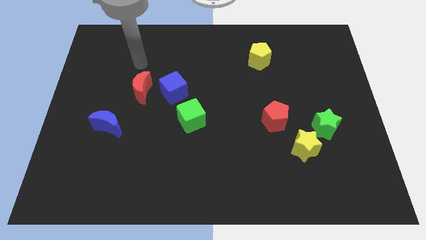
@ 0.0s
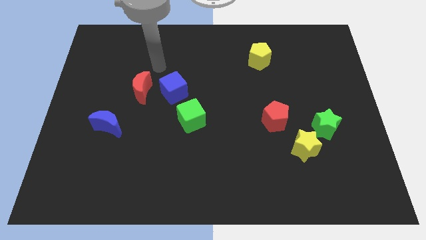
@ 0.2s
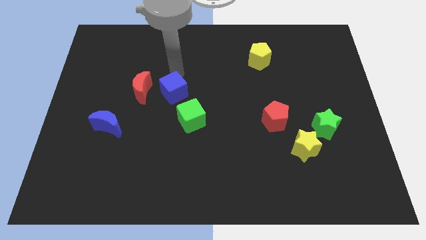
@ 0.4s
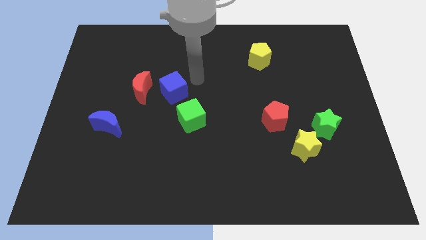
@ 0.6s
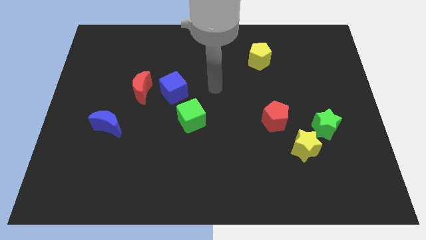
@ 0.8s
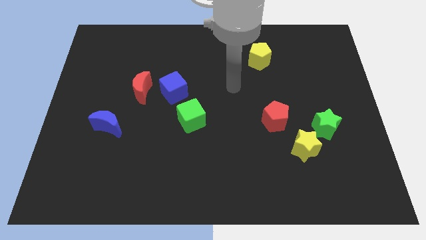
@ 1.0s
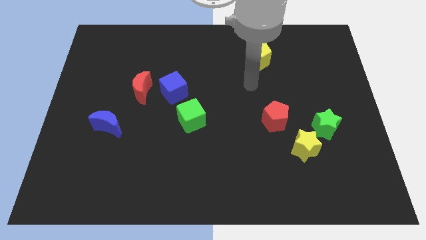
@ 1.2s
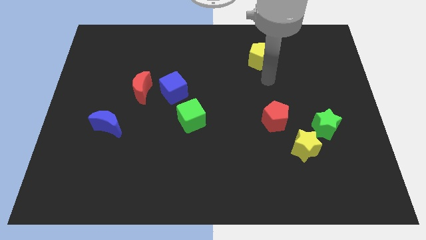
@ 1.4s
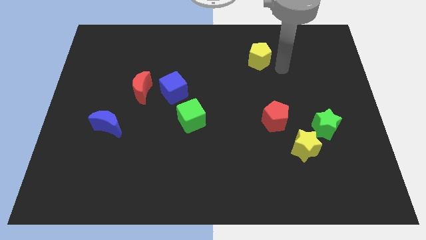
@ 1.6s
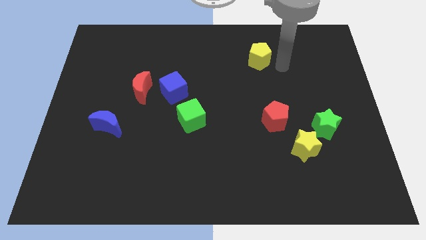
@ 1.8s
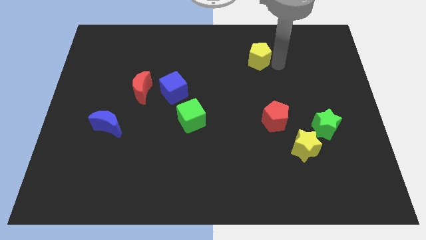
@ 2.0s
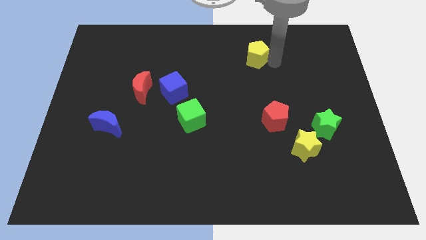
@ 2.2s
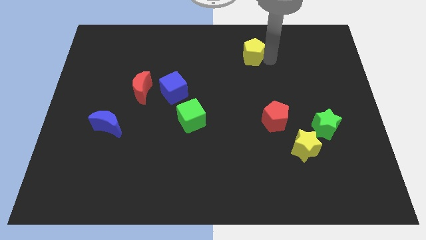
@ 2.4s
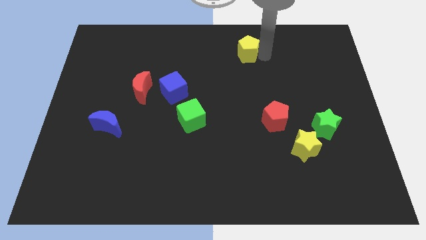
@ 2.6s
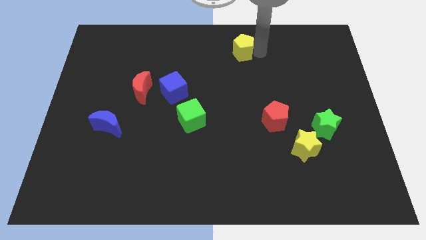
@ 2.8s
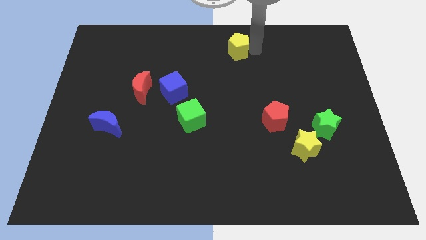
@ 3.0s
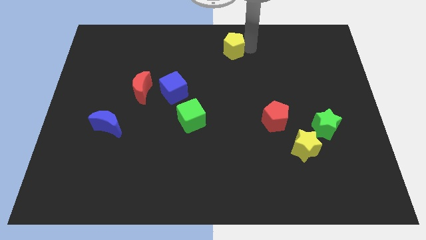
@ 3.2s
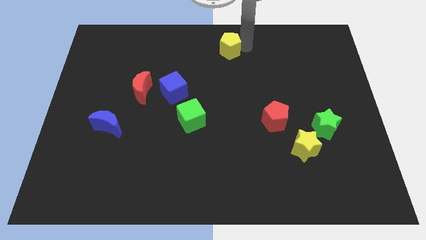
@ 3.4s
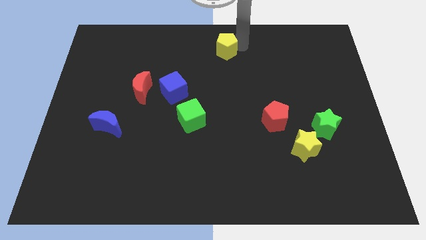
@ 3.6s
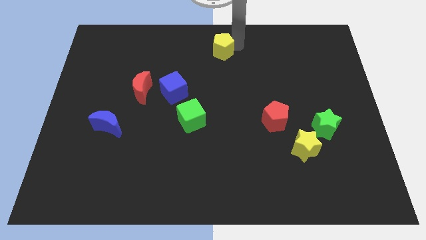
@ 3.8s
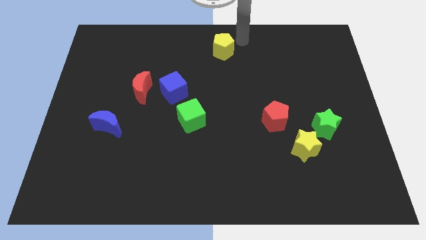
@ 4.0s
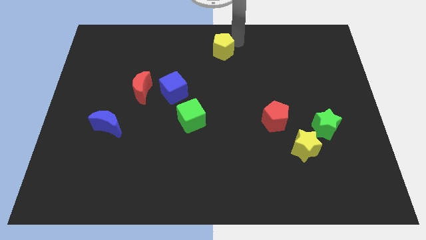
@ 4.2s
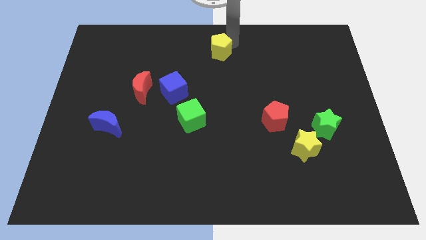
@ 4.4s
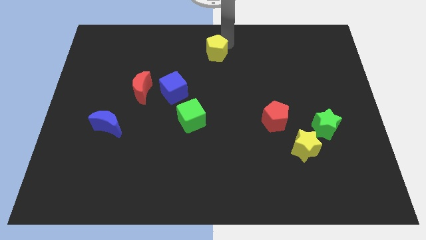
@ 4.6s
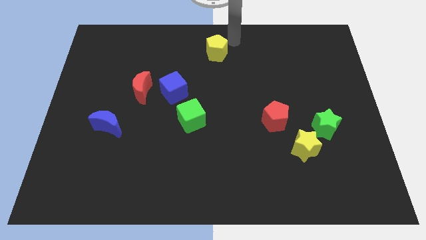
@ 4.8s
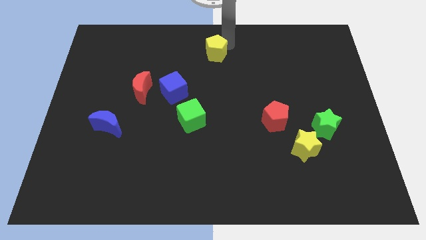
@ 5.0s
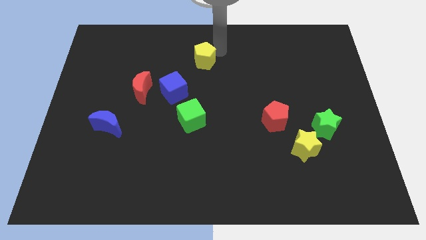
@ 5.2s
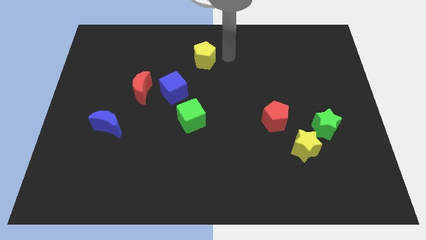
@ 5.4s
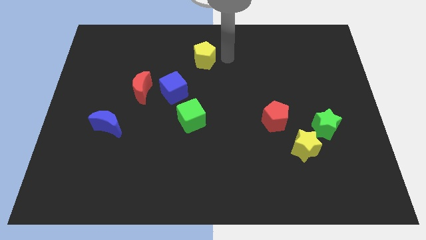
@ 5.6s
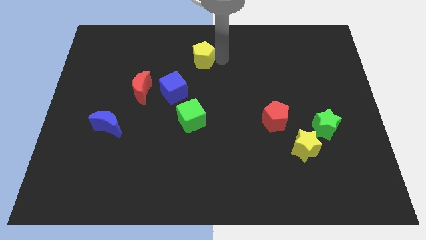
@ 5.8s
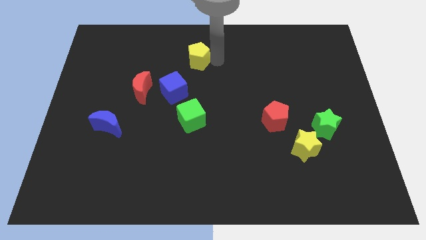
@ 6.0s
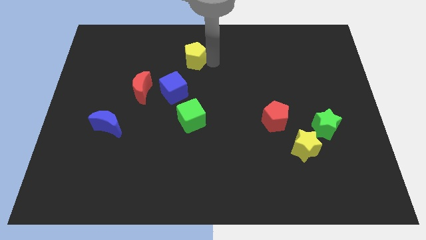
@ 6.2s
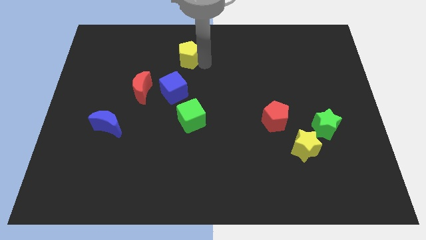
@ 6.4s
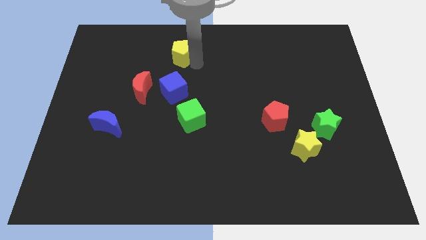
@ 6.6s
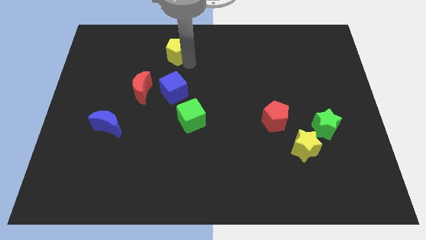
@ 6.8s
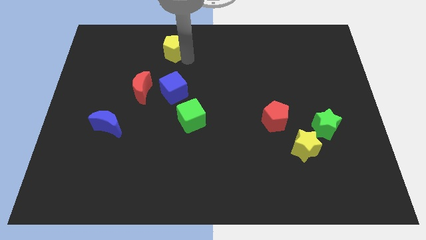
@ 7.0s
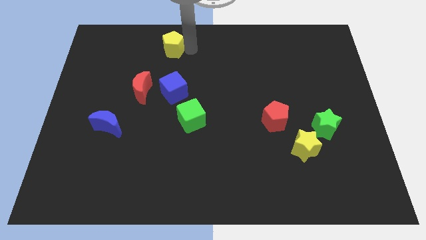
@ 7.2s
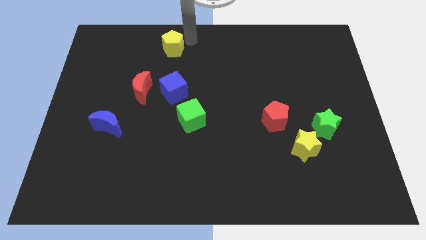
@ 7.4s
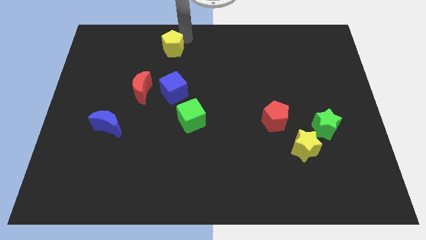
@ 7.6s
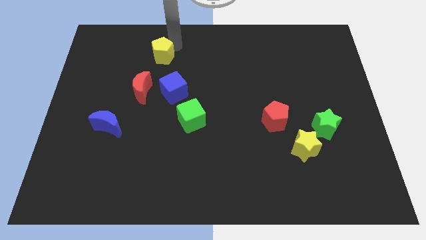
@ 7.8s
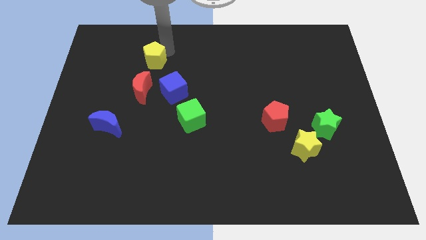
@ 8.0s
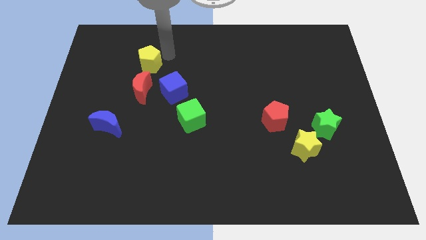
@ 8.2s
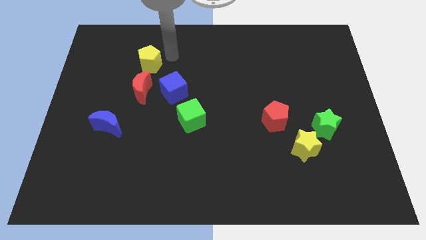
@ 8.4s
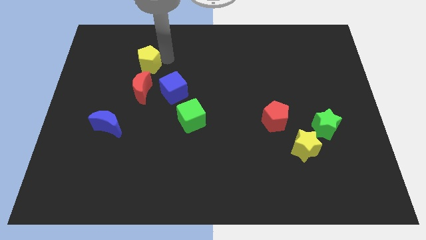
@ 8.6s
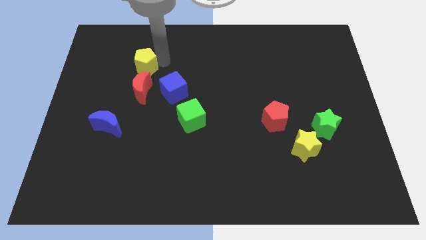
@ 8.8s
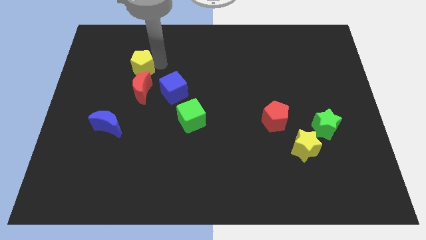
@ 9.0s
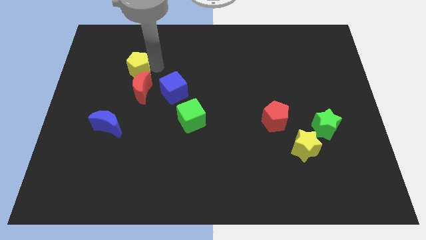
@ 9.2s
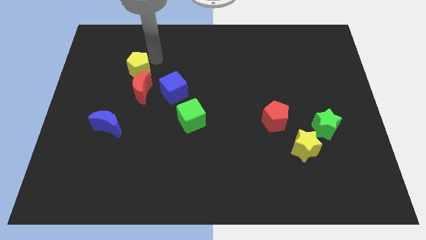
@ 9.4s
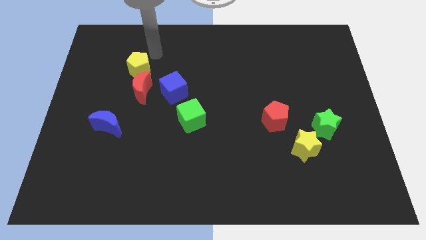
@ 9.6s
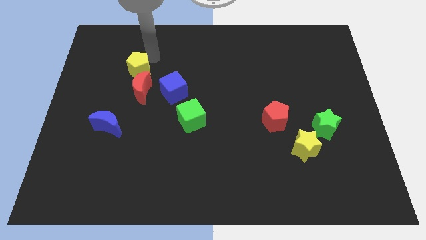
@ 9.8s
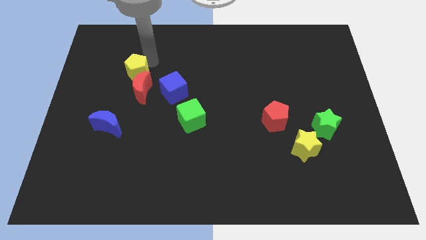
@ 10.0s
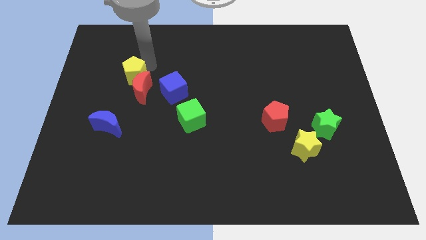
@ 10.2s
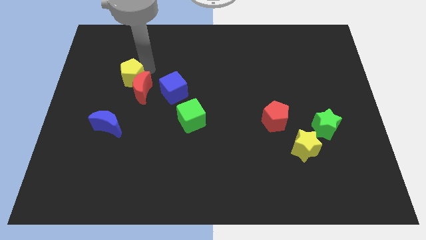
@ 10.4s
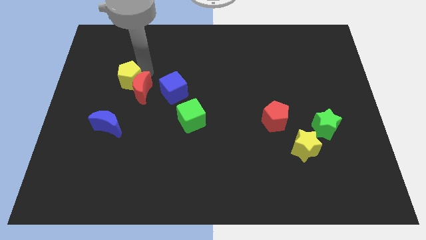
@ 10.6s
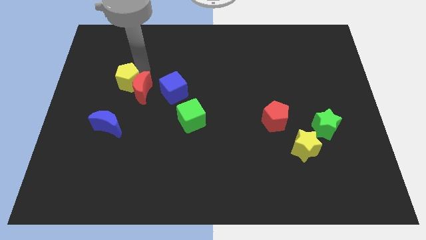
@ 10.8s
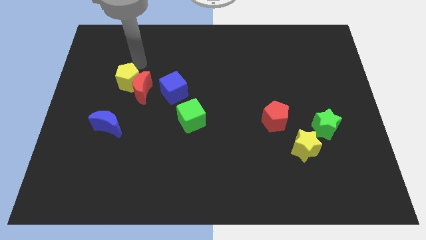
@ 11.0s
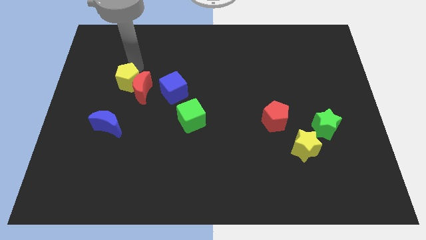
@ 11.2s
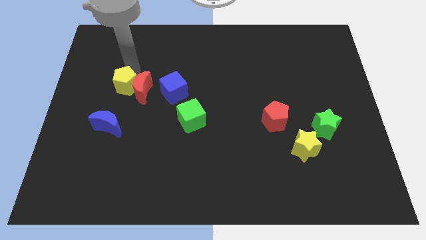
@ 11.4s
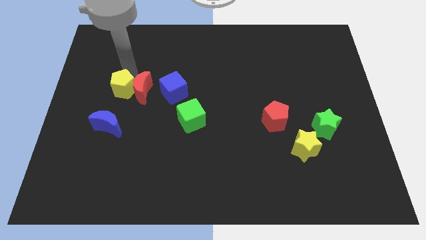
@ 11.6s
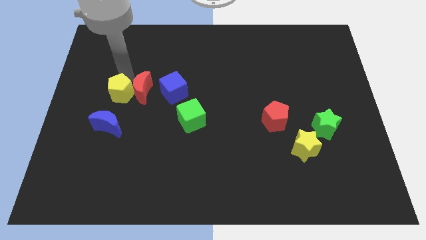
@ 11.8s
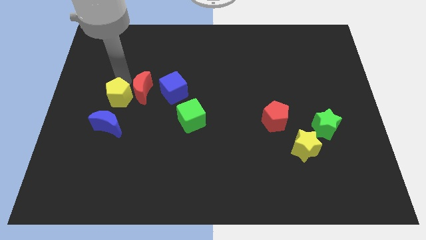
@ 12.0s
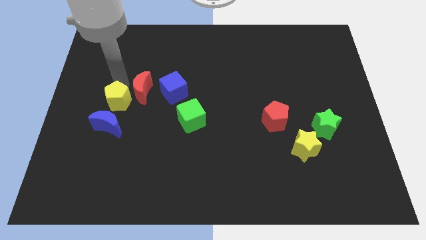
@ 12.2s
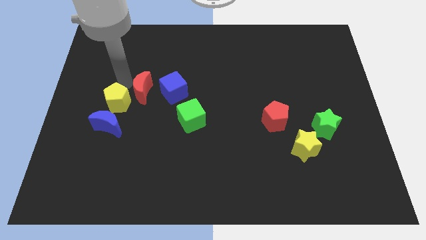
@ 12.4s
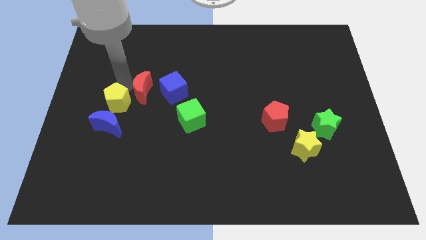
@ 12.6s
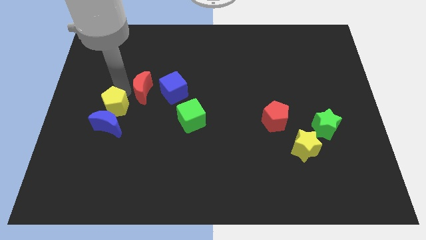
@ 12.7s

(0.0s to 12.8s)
slide the yellow pentagon next to the blue moon

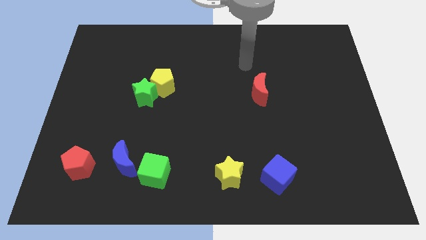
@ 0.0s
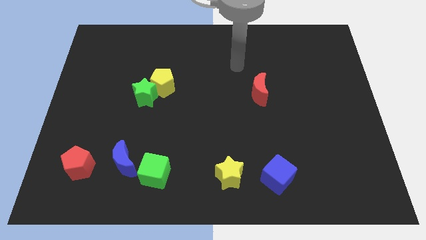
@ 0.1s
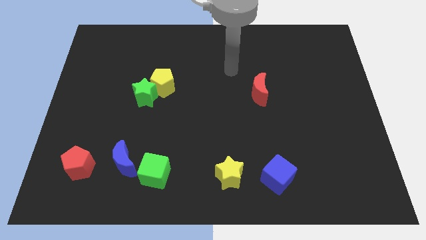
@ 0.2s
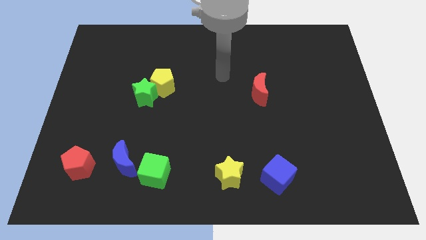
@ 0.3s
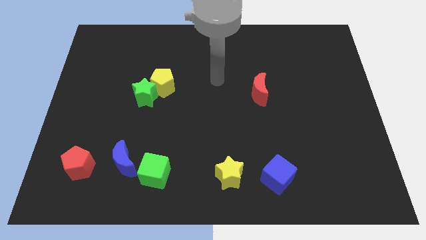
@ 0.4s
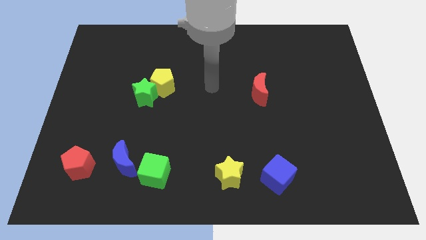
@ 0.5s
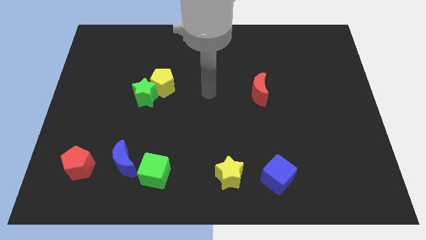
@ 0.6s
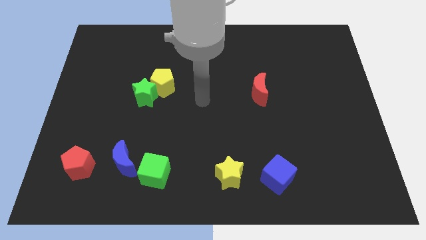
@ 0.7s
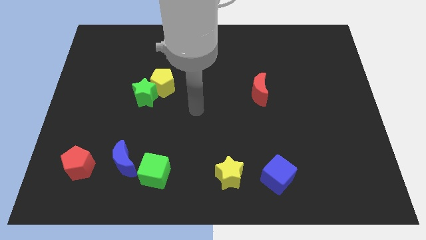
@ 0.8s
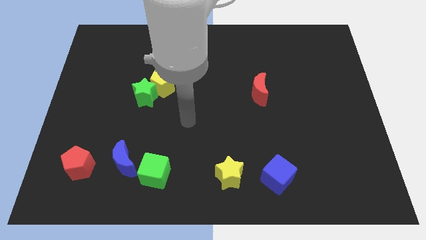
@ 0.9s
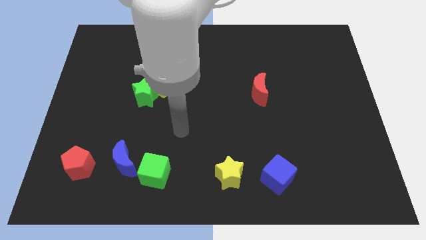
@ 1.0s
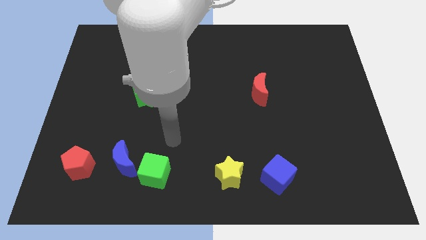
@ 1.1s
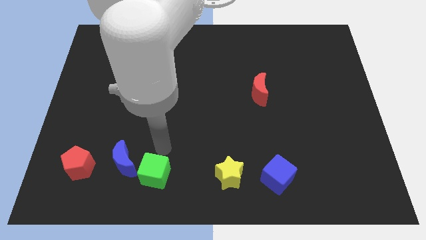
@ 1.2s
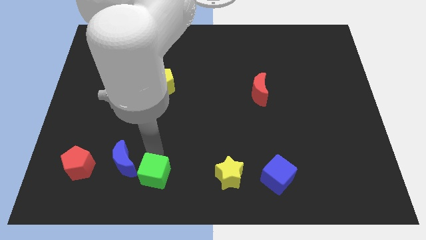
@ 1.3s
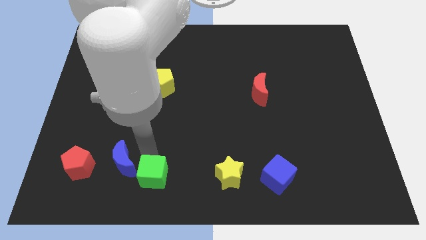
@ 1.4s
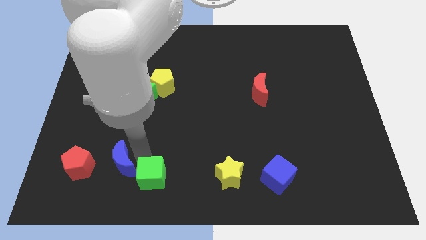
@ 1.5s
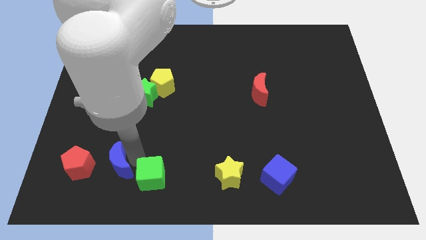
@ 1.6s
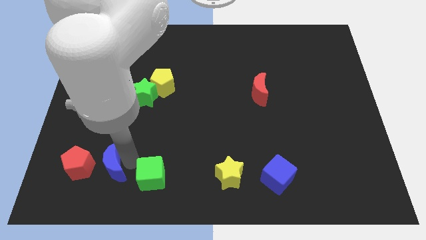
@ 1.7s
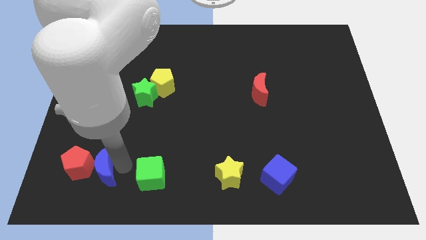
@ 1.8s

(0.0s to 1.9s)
push the blue moon to the red pentagon
